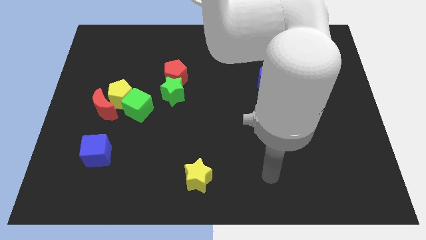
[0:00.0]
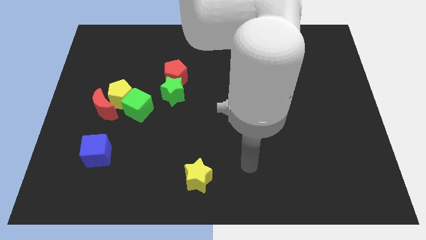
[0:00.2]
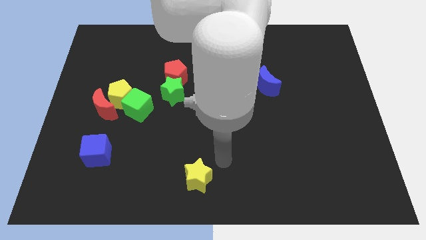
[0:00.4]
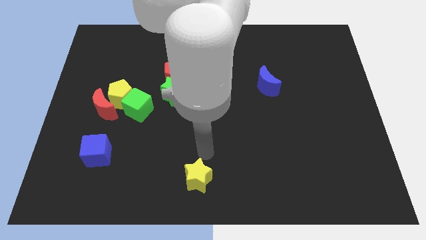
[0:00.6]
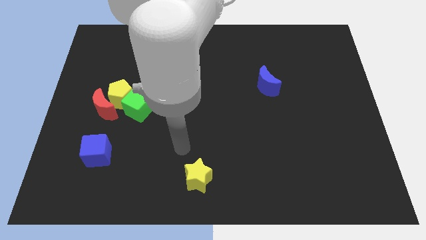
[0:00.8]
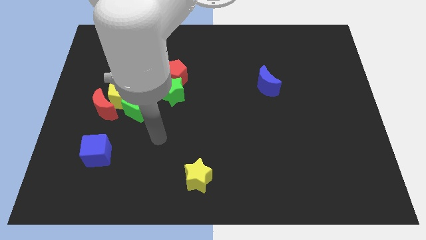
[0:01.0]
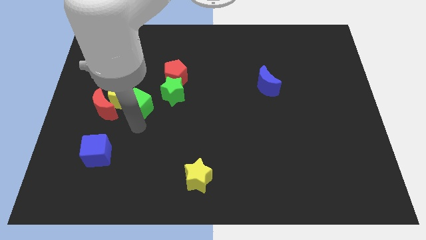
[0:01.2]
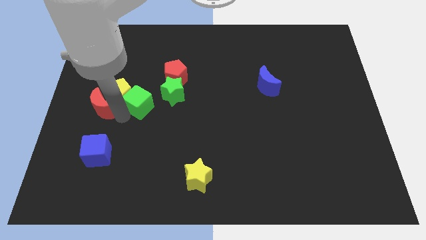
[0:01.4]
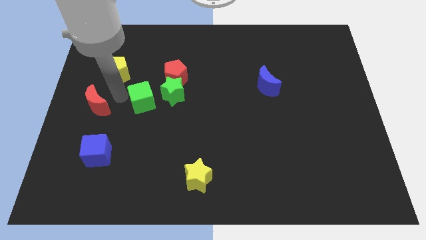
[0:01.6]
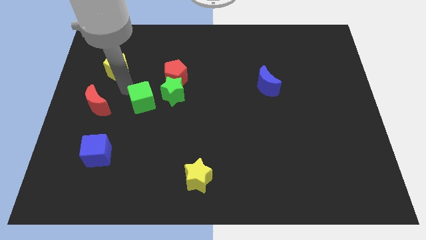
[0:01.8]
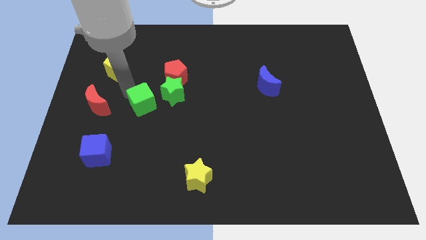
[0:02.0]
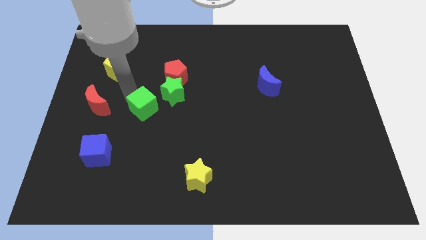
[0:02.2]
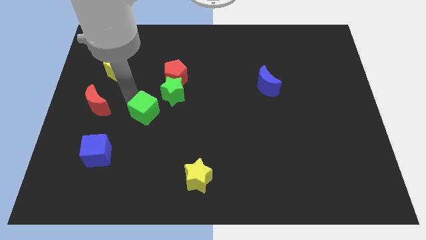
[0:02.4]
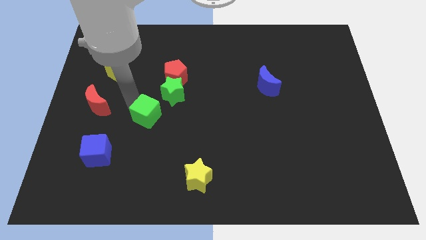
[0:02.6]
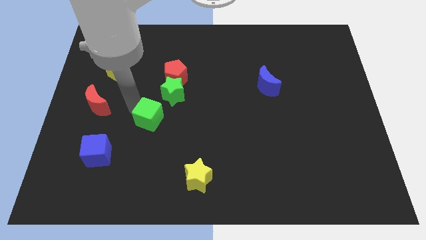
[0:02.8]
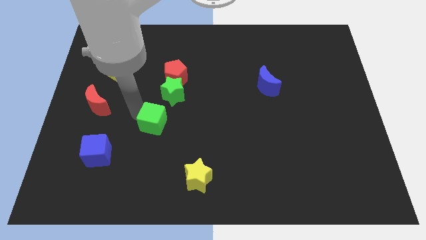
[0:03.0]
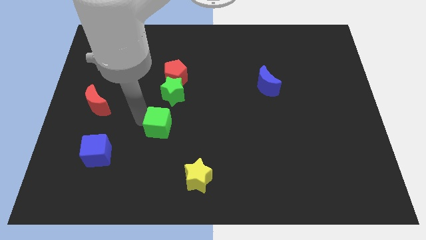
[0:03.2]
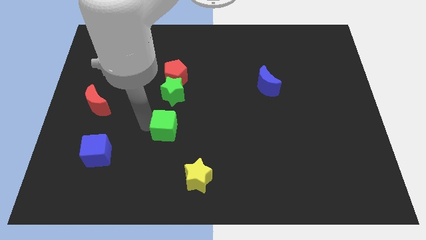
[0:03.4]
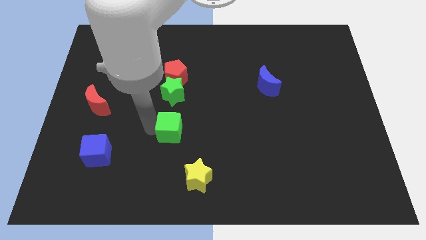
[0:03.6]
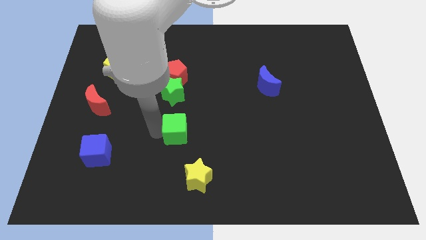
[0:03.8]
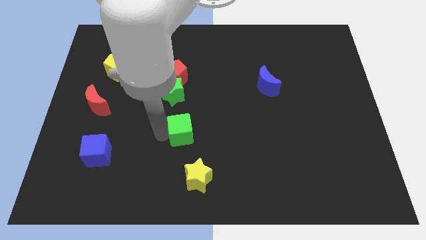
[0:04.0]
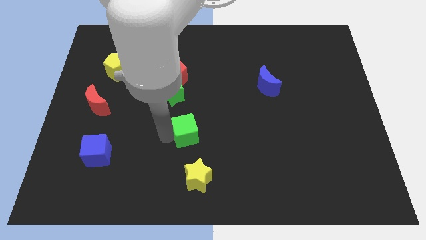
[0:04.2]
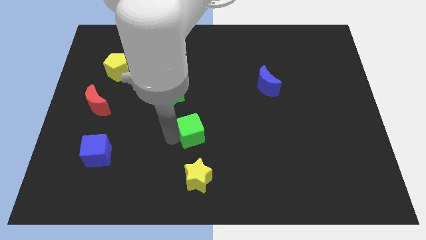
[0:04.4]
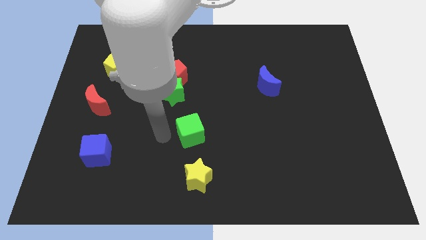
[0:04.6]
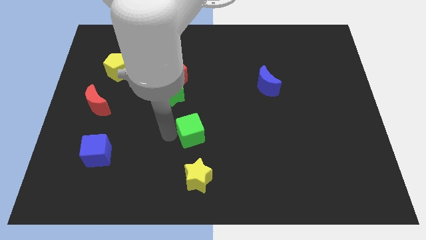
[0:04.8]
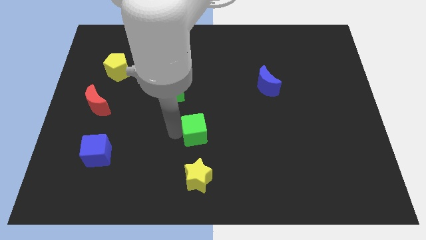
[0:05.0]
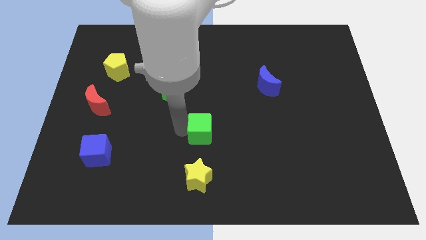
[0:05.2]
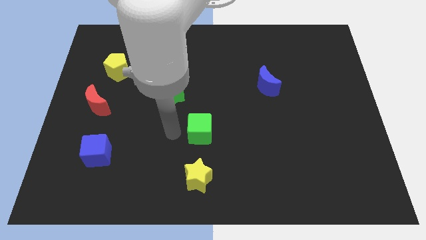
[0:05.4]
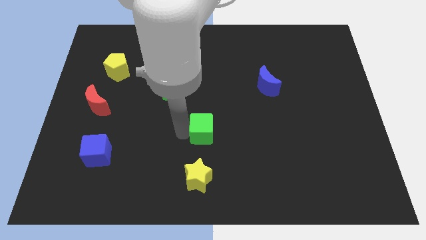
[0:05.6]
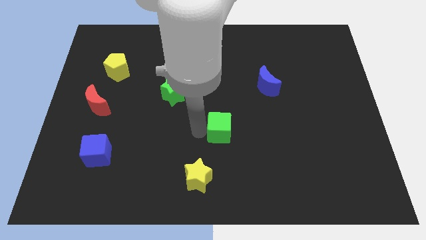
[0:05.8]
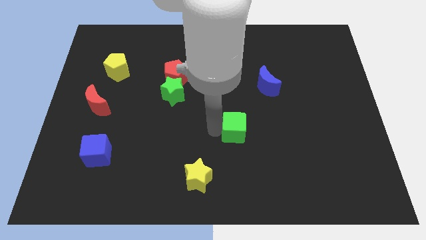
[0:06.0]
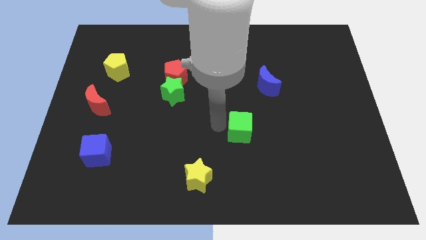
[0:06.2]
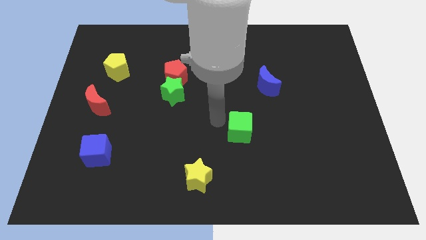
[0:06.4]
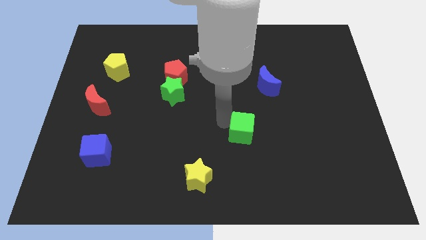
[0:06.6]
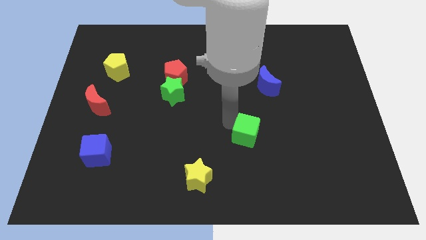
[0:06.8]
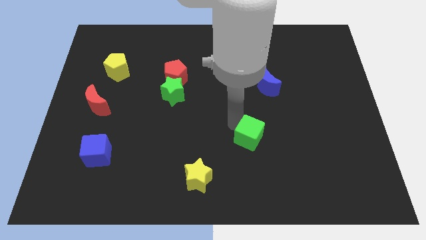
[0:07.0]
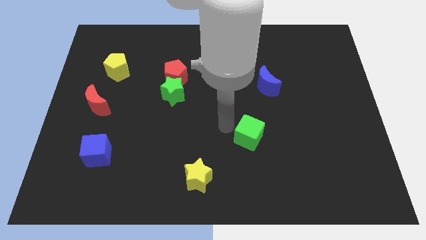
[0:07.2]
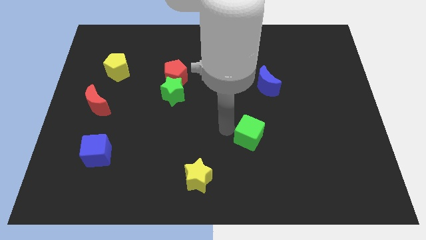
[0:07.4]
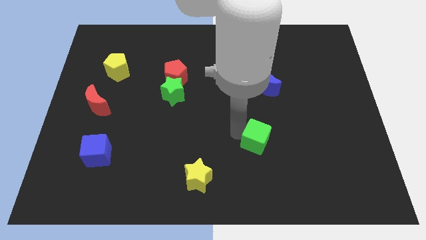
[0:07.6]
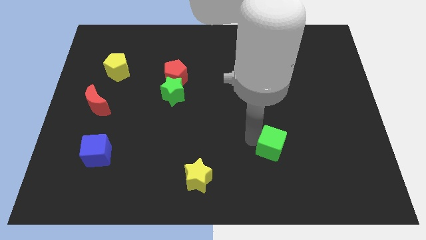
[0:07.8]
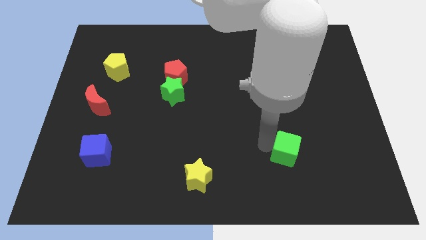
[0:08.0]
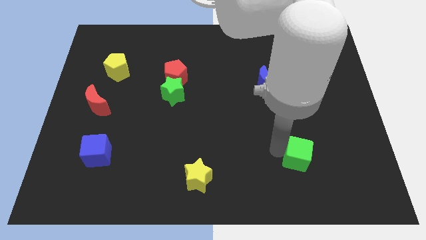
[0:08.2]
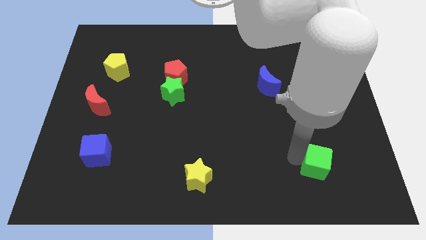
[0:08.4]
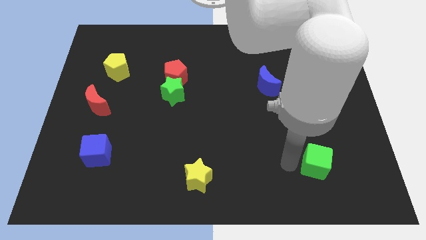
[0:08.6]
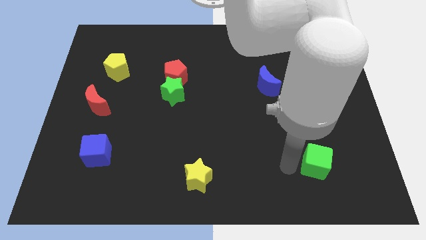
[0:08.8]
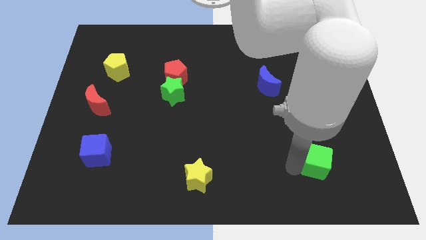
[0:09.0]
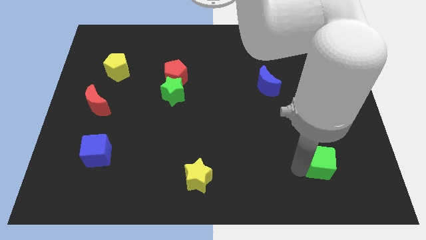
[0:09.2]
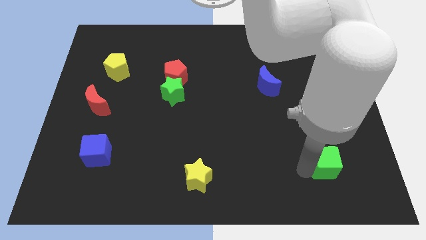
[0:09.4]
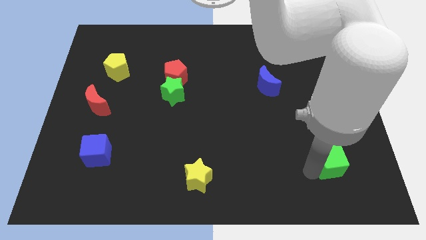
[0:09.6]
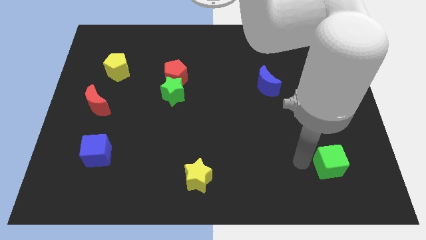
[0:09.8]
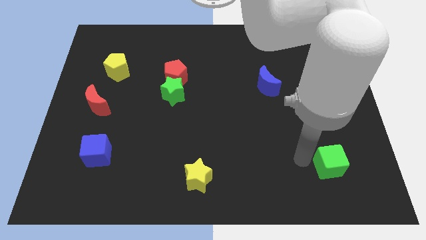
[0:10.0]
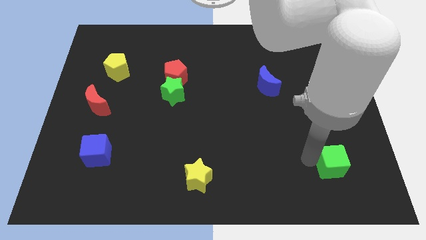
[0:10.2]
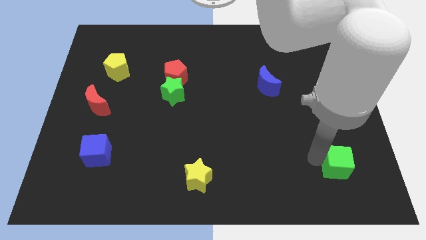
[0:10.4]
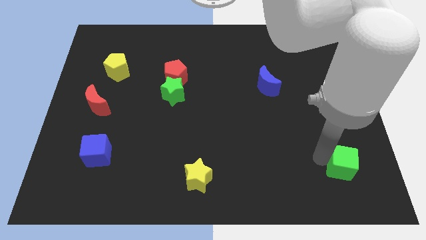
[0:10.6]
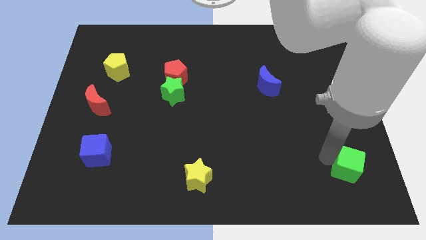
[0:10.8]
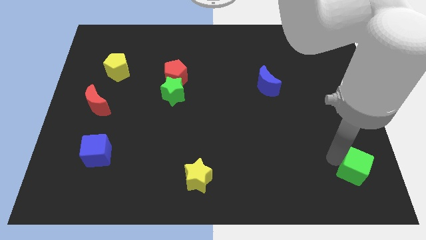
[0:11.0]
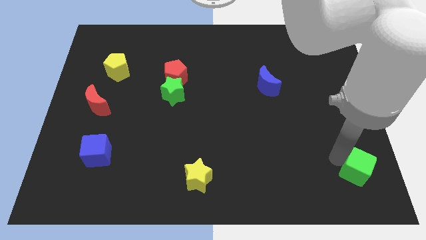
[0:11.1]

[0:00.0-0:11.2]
slide the green cube to the bottom right
